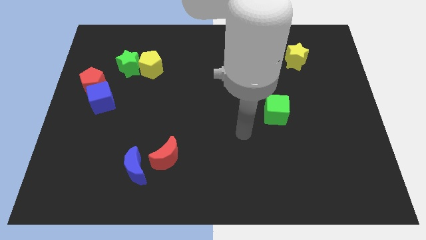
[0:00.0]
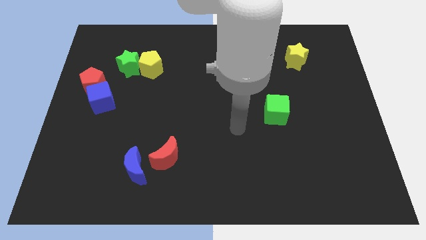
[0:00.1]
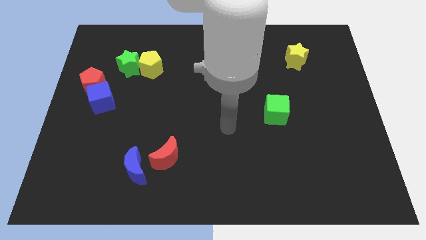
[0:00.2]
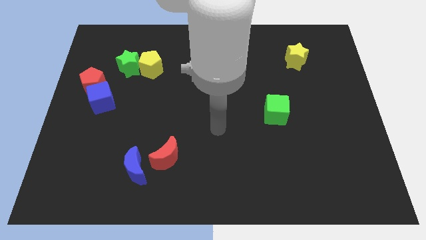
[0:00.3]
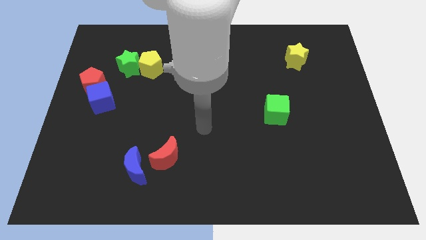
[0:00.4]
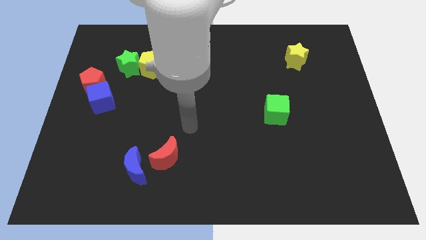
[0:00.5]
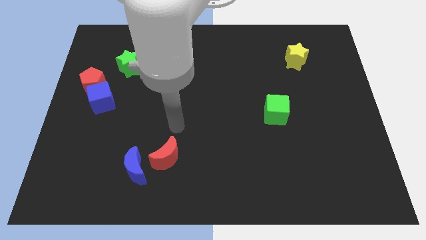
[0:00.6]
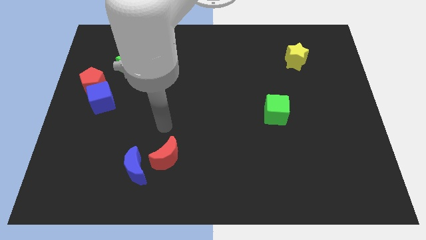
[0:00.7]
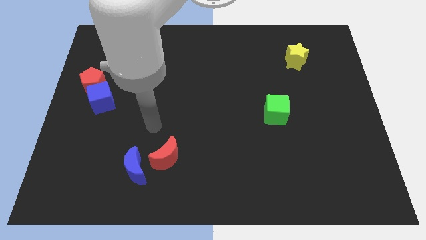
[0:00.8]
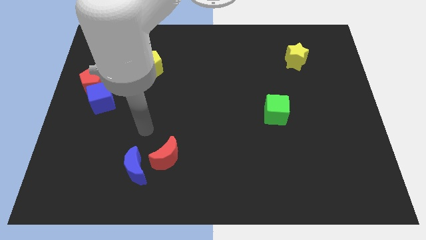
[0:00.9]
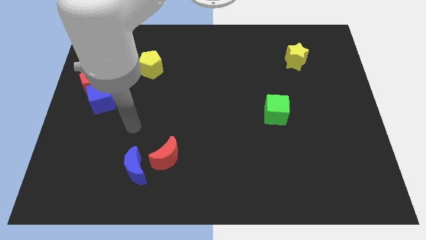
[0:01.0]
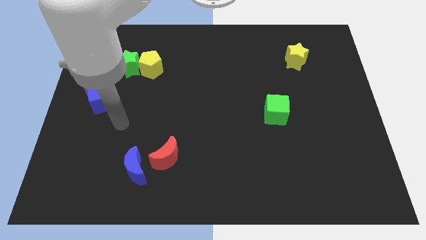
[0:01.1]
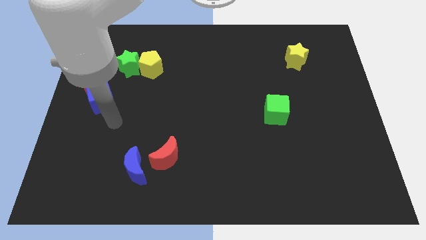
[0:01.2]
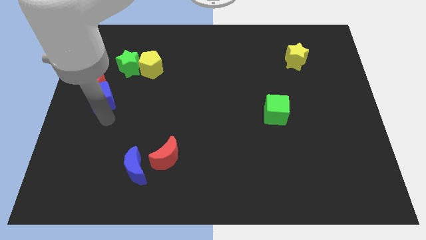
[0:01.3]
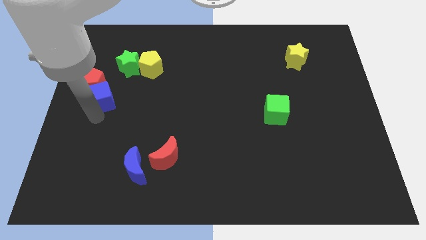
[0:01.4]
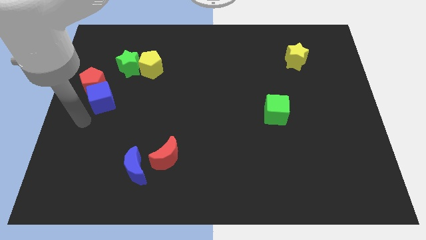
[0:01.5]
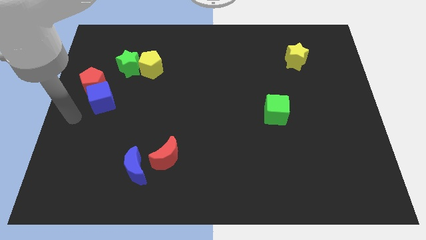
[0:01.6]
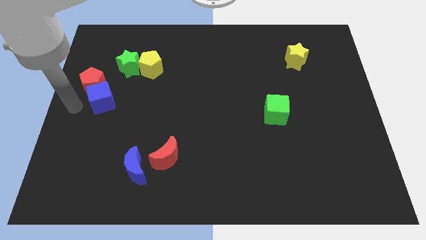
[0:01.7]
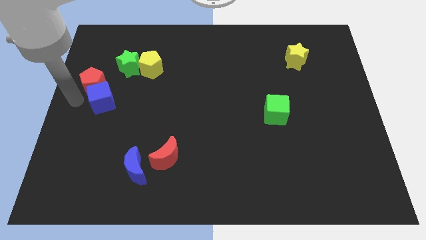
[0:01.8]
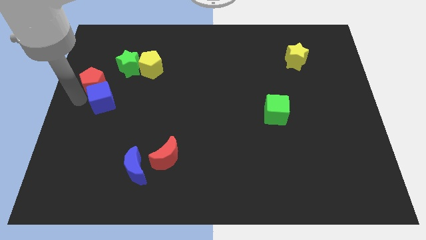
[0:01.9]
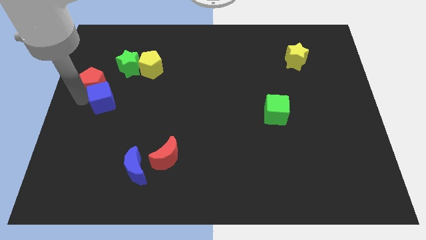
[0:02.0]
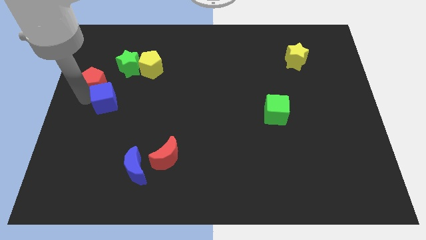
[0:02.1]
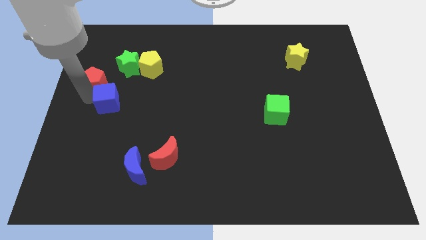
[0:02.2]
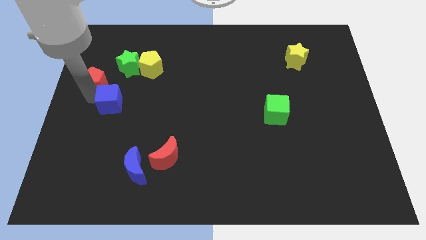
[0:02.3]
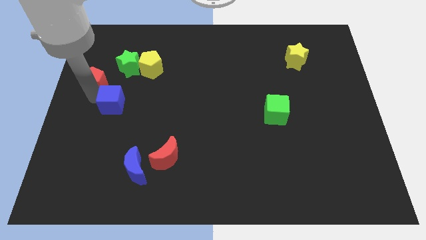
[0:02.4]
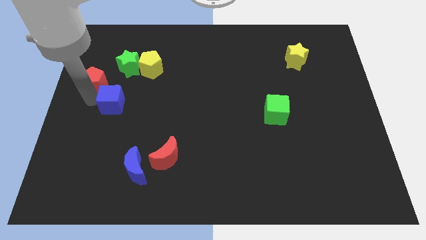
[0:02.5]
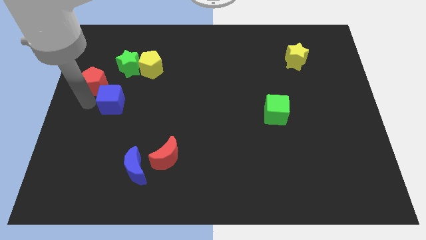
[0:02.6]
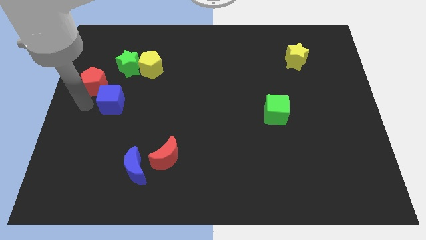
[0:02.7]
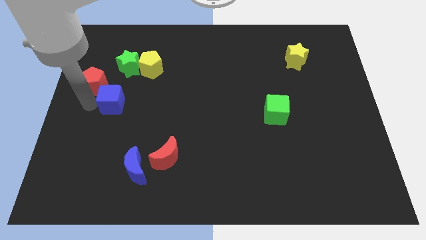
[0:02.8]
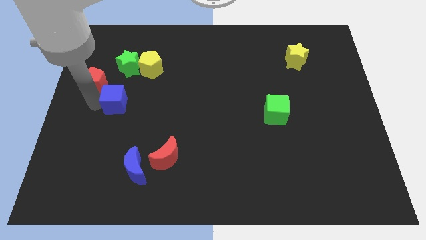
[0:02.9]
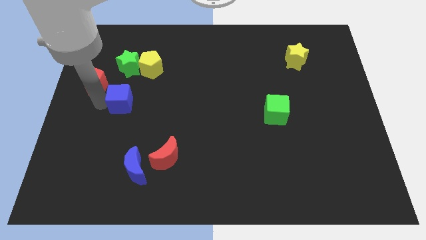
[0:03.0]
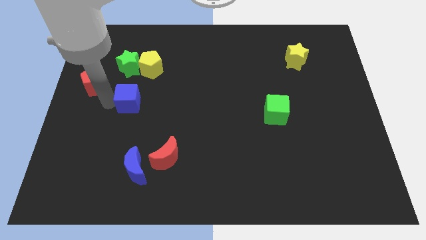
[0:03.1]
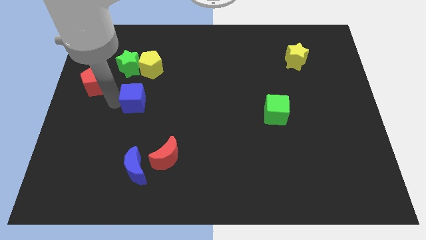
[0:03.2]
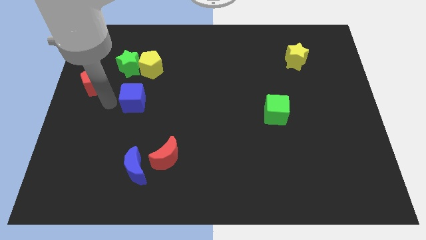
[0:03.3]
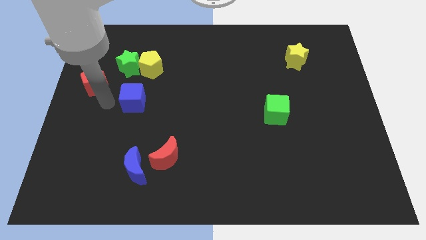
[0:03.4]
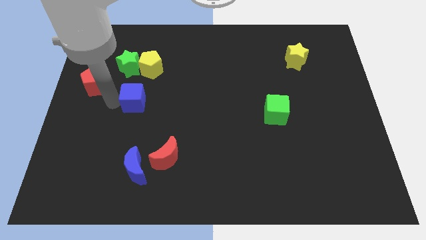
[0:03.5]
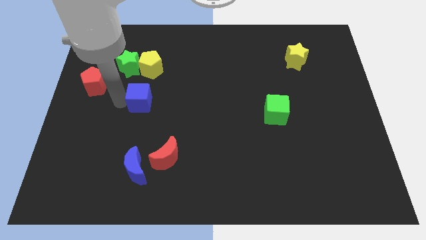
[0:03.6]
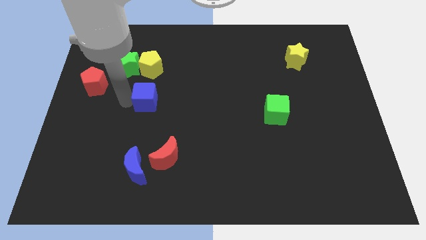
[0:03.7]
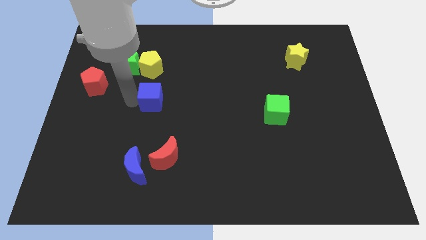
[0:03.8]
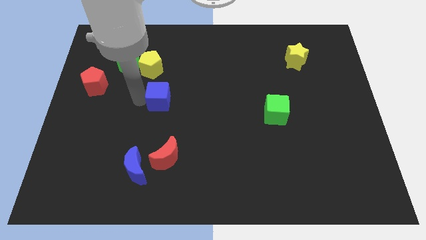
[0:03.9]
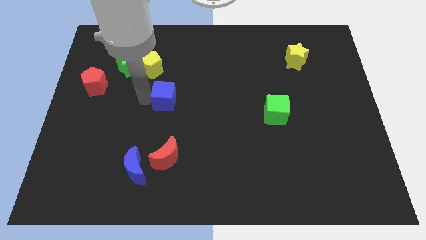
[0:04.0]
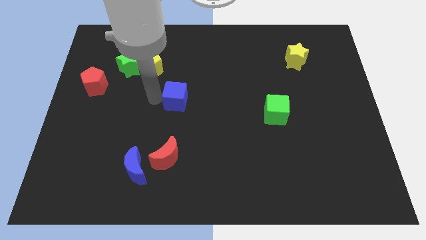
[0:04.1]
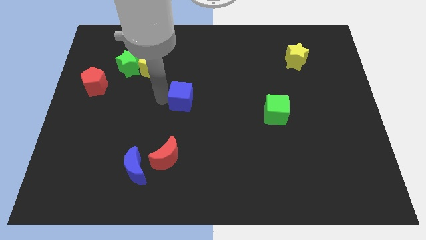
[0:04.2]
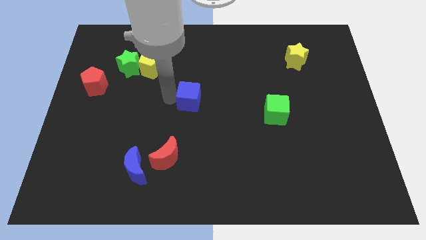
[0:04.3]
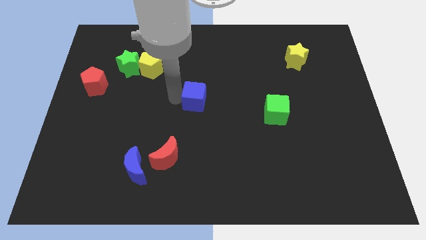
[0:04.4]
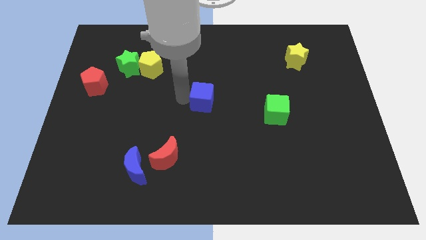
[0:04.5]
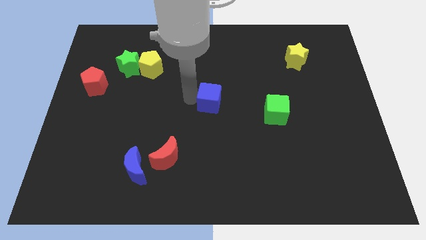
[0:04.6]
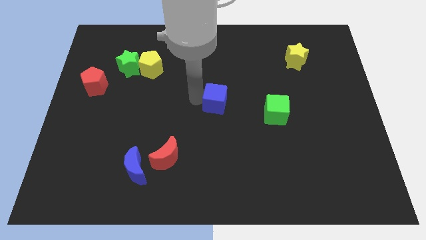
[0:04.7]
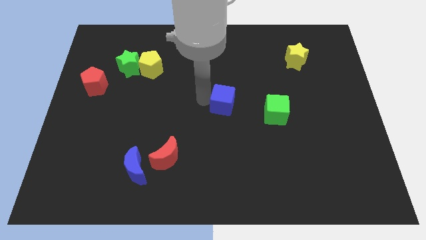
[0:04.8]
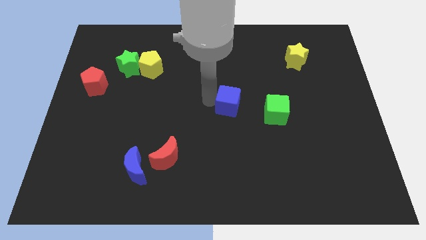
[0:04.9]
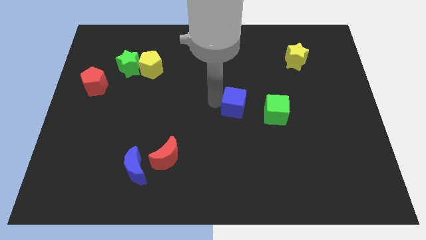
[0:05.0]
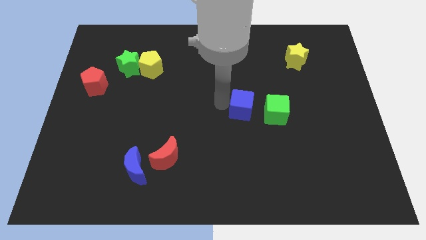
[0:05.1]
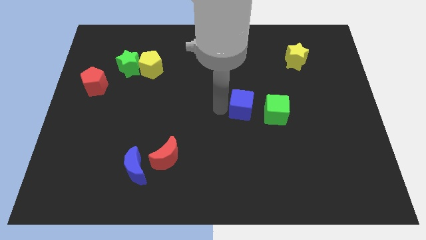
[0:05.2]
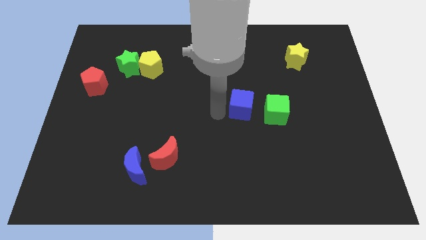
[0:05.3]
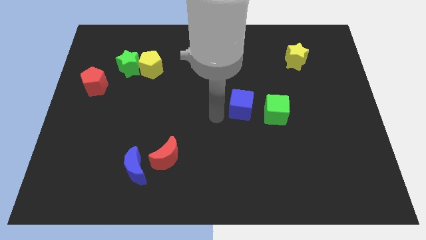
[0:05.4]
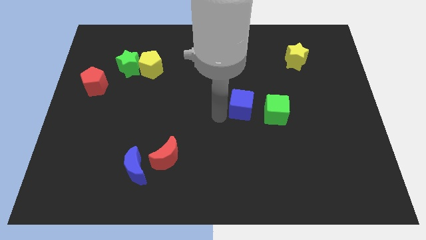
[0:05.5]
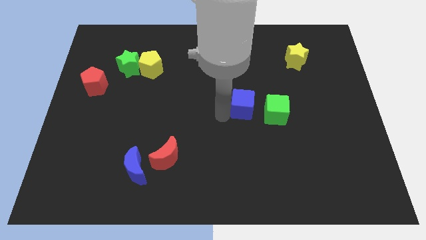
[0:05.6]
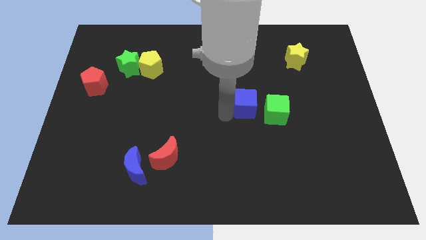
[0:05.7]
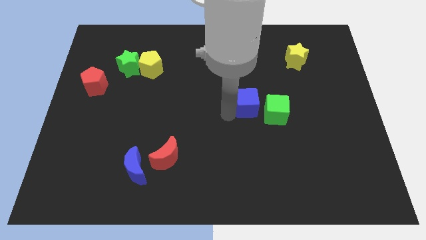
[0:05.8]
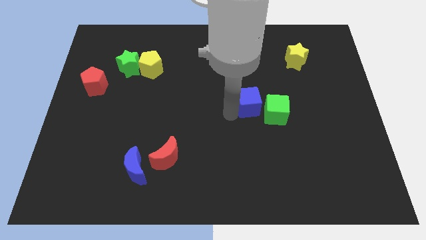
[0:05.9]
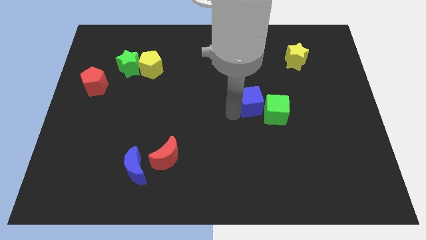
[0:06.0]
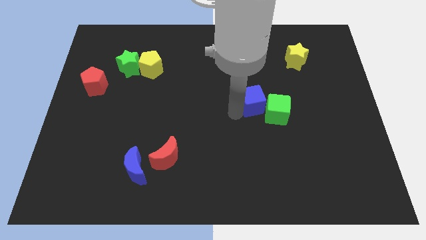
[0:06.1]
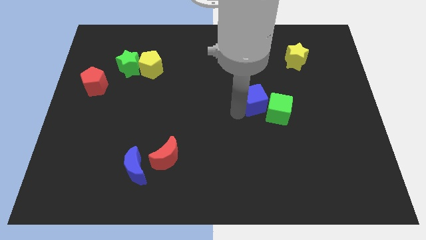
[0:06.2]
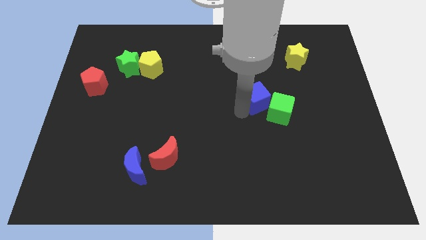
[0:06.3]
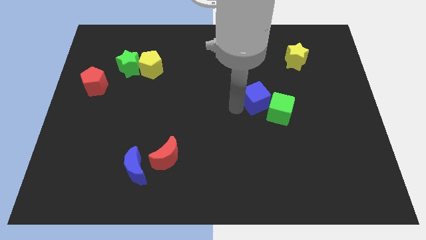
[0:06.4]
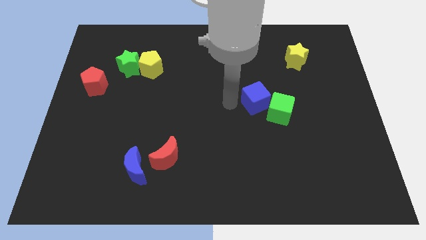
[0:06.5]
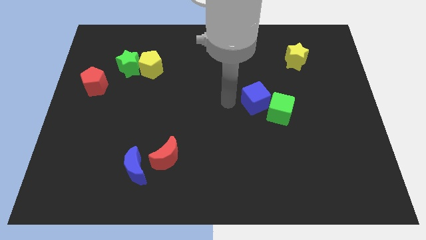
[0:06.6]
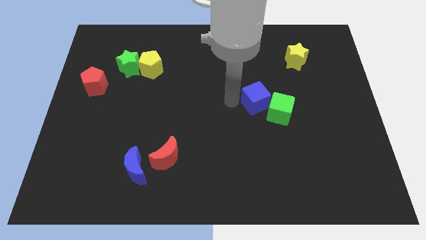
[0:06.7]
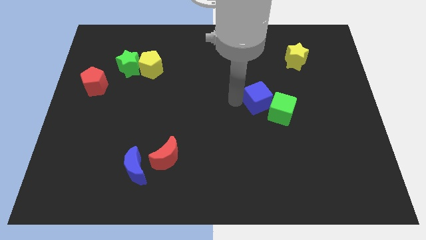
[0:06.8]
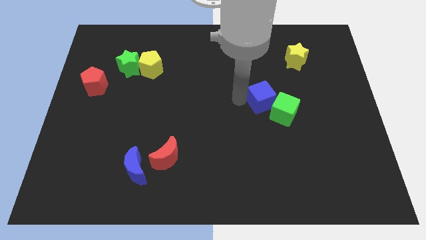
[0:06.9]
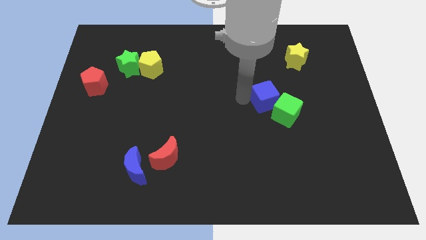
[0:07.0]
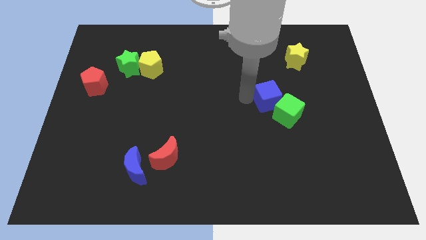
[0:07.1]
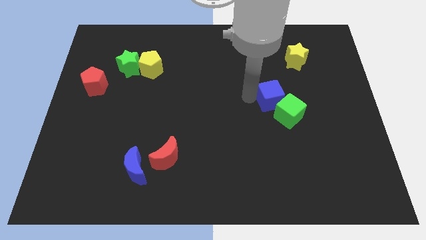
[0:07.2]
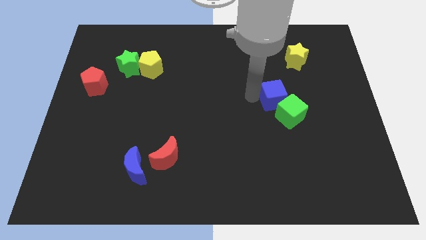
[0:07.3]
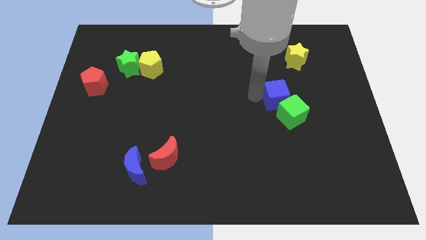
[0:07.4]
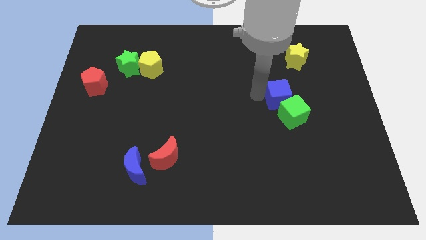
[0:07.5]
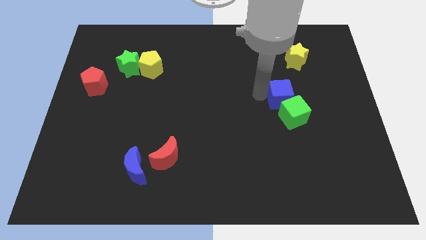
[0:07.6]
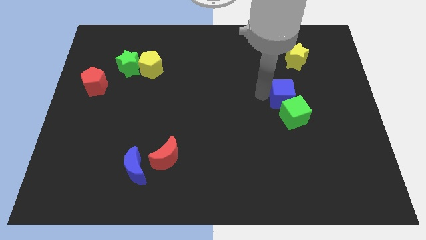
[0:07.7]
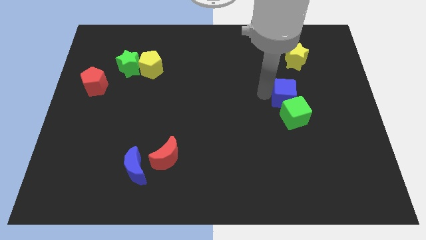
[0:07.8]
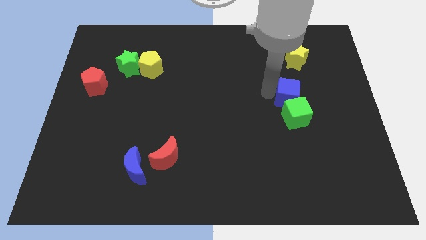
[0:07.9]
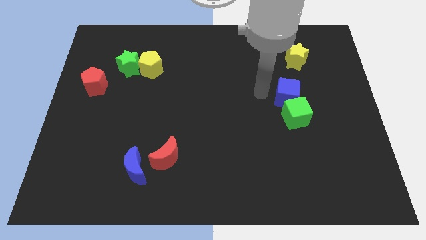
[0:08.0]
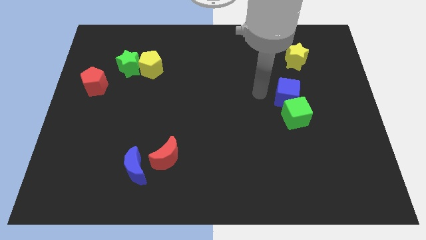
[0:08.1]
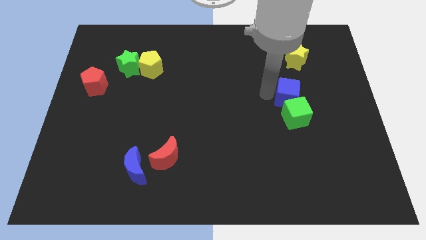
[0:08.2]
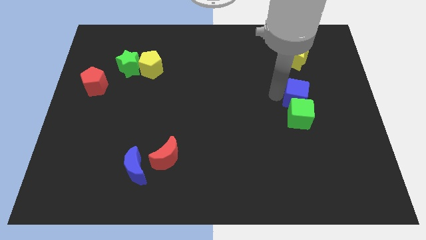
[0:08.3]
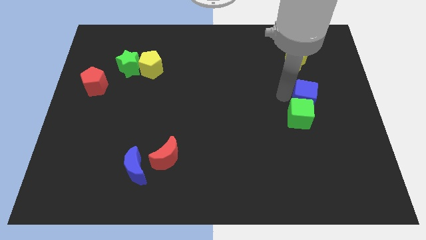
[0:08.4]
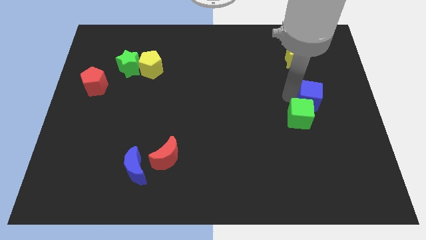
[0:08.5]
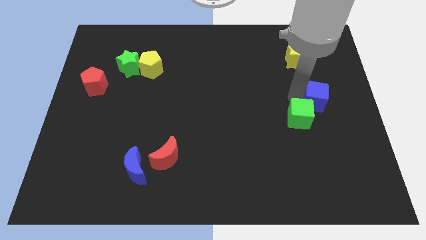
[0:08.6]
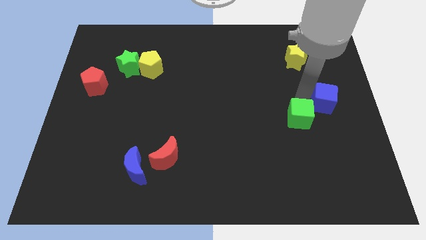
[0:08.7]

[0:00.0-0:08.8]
slide the blue cube to the center right
